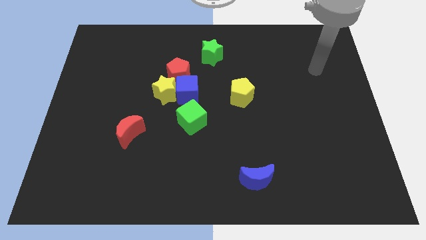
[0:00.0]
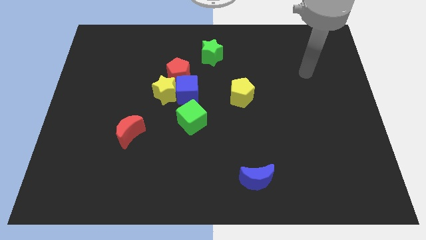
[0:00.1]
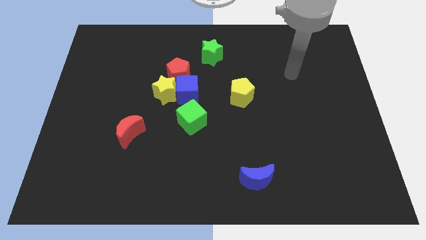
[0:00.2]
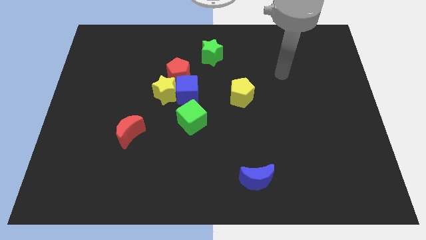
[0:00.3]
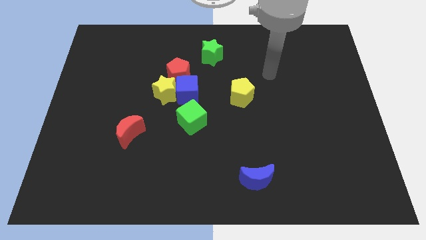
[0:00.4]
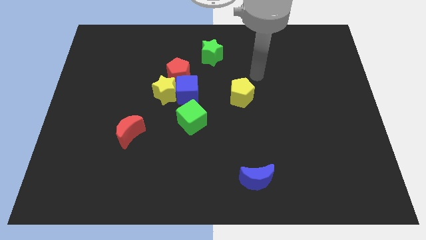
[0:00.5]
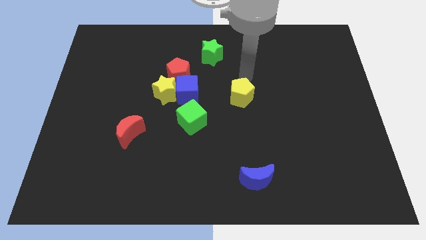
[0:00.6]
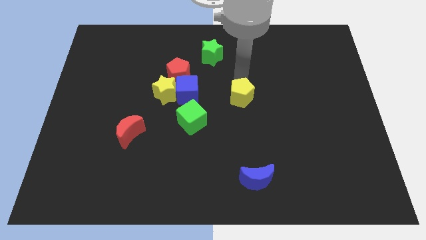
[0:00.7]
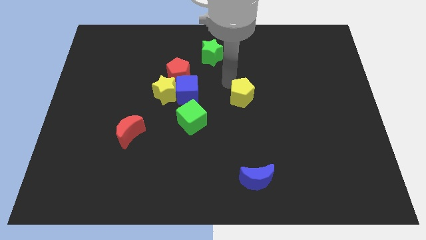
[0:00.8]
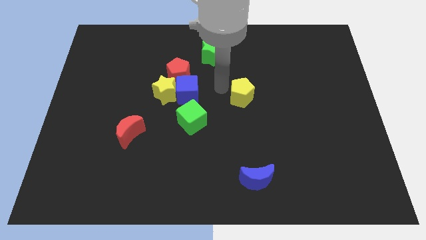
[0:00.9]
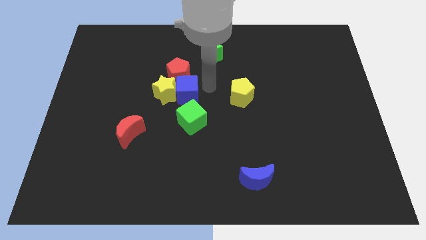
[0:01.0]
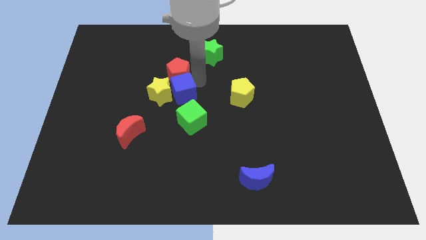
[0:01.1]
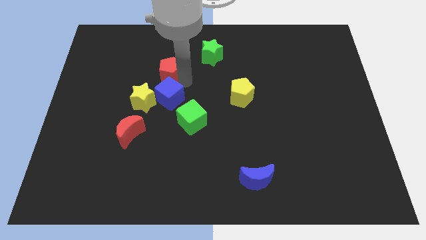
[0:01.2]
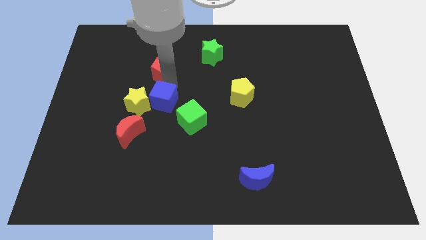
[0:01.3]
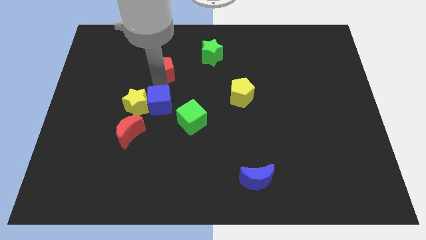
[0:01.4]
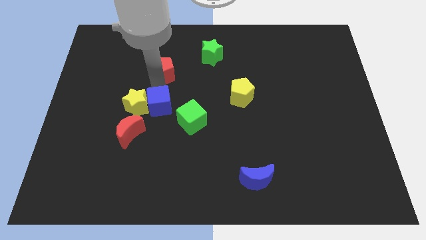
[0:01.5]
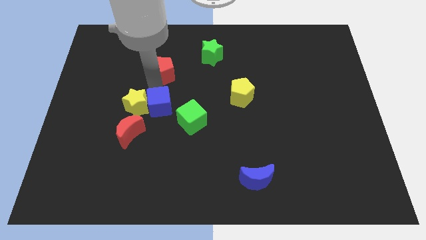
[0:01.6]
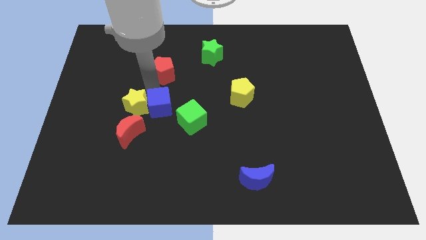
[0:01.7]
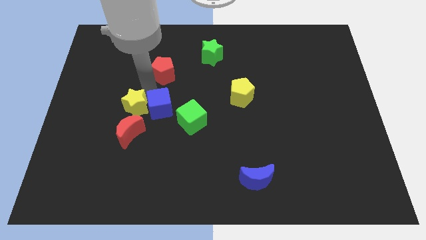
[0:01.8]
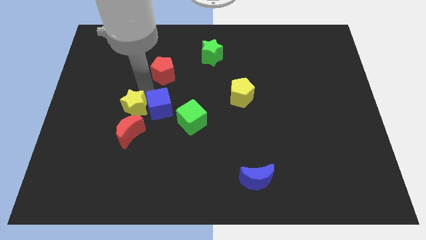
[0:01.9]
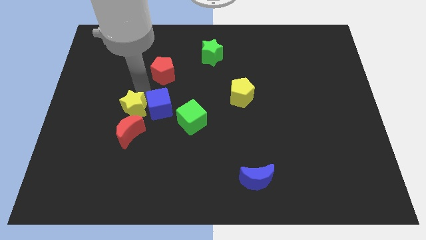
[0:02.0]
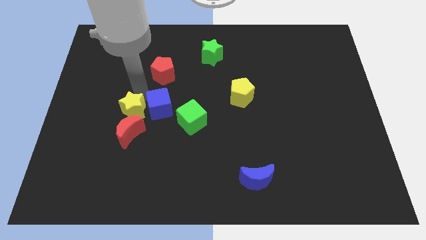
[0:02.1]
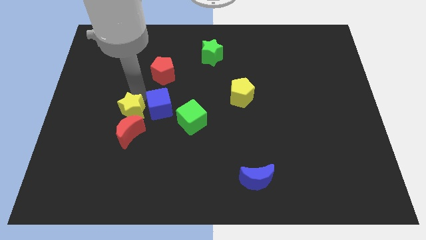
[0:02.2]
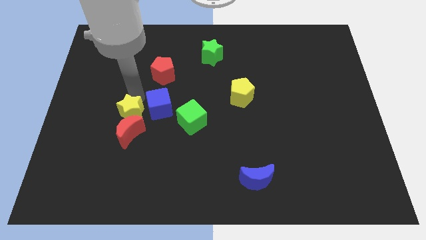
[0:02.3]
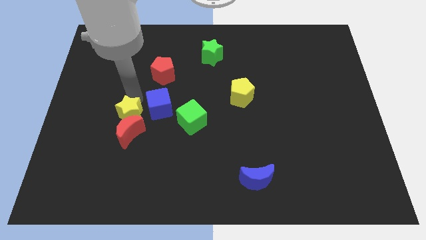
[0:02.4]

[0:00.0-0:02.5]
move the yellow star away from the blue cube and red pentagon

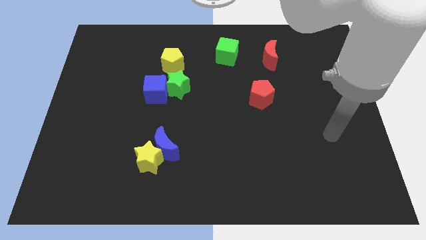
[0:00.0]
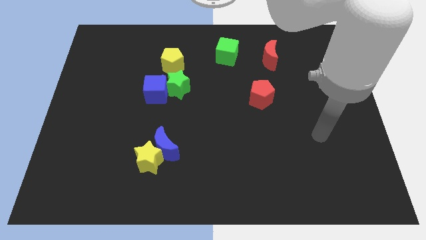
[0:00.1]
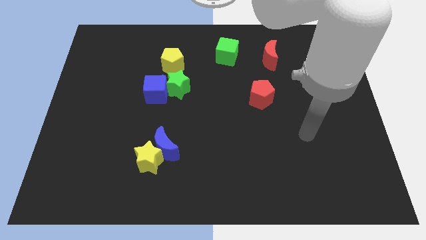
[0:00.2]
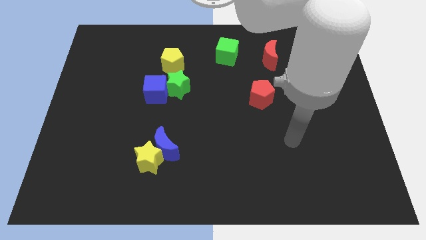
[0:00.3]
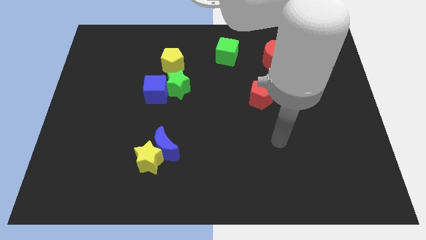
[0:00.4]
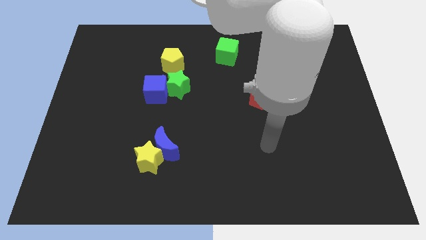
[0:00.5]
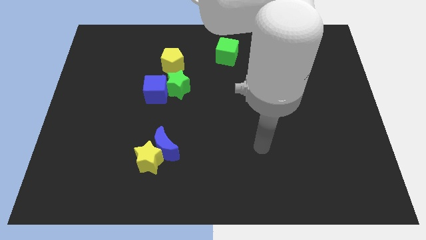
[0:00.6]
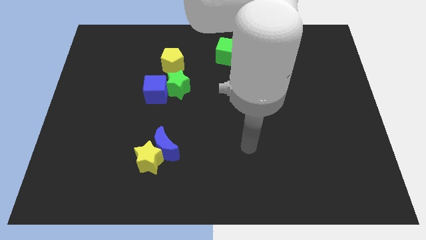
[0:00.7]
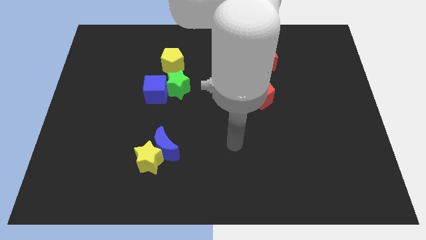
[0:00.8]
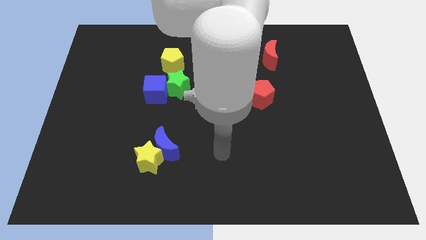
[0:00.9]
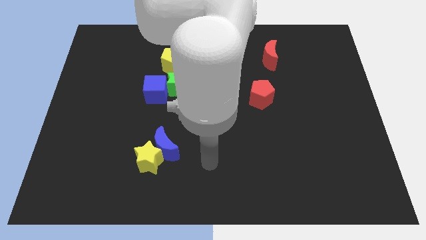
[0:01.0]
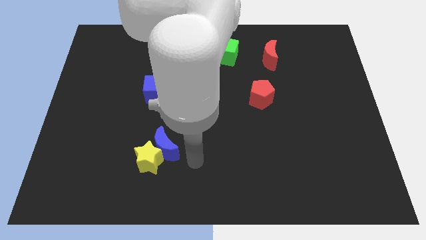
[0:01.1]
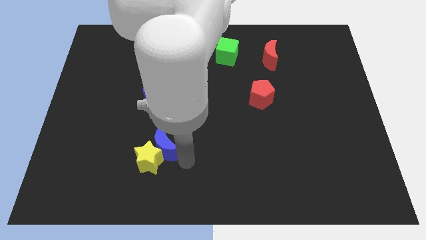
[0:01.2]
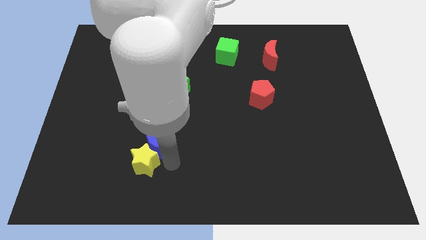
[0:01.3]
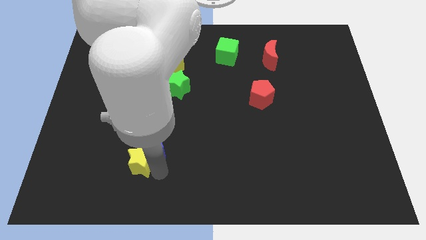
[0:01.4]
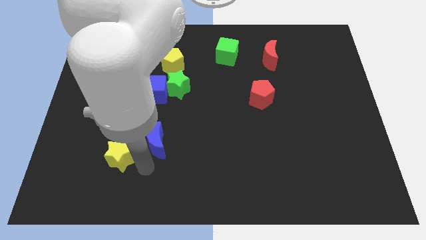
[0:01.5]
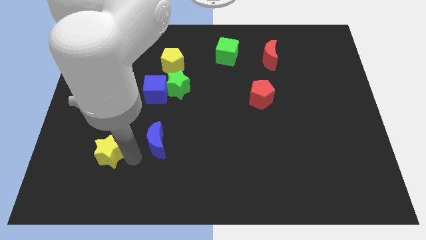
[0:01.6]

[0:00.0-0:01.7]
move the blue moon away from the yellow star

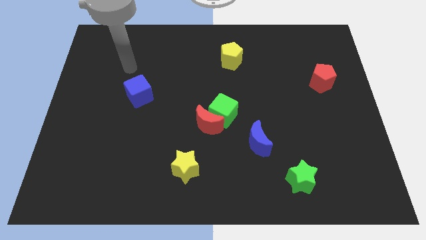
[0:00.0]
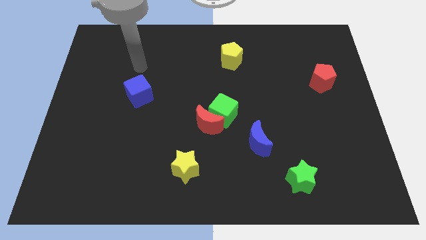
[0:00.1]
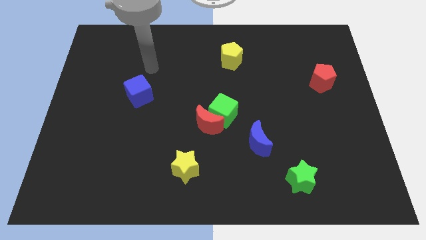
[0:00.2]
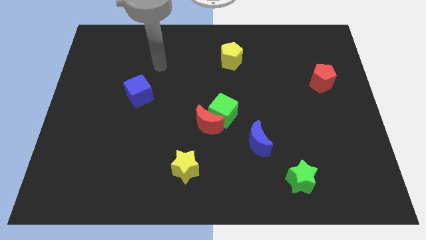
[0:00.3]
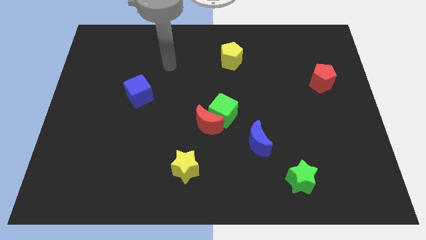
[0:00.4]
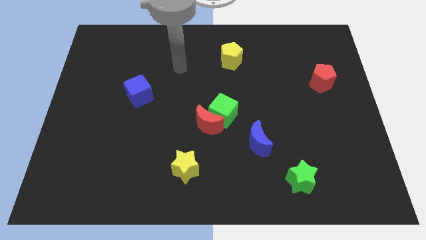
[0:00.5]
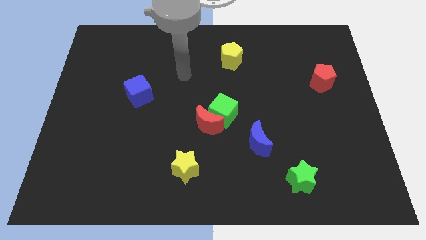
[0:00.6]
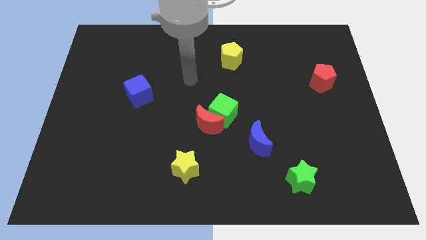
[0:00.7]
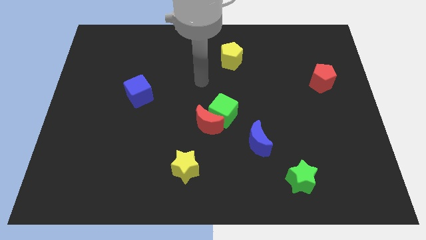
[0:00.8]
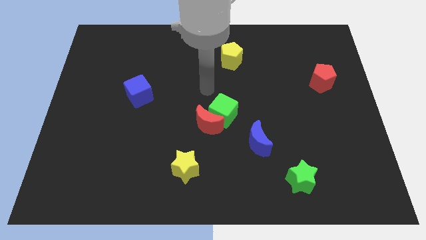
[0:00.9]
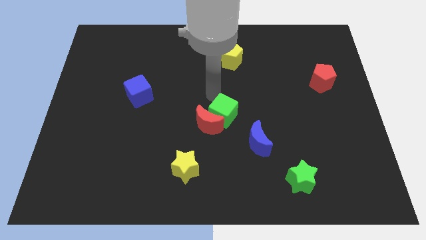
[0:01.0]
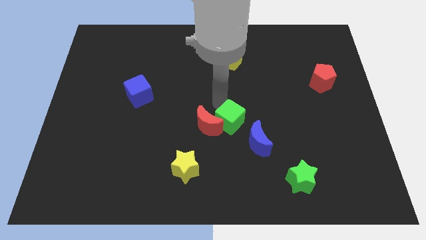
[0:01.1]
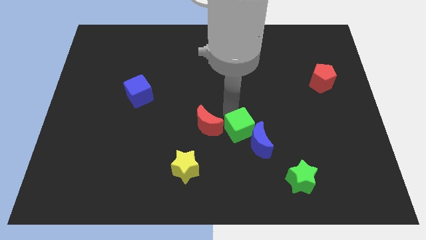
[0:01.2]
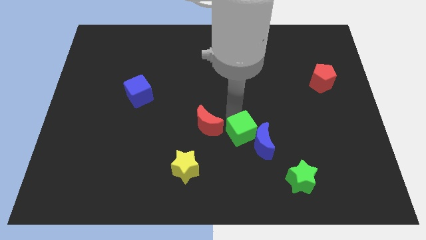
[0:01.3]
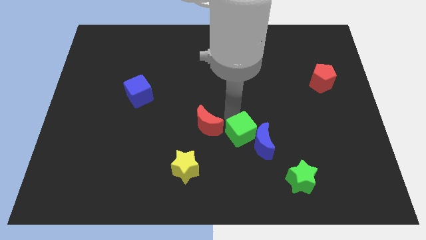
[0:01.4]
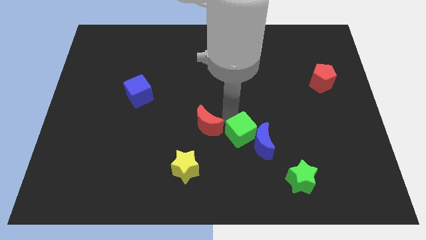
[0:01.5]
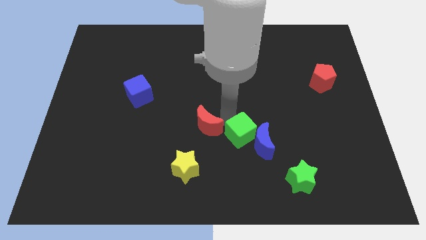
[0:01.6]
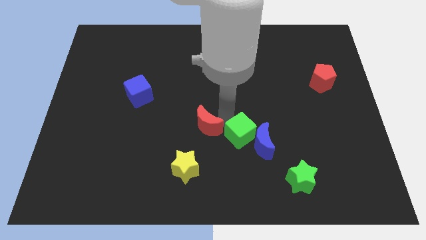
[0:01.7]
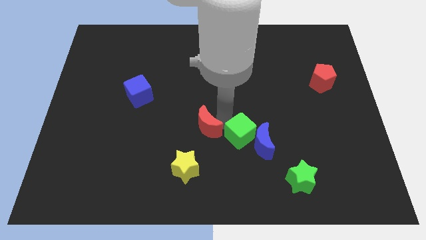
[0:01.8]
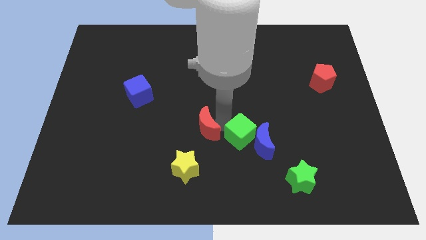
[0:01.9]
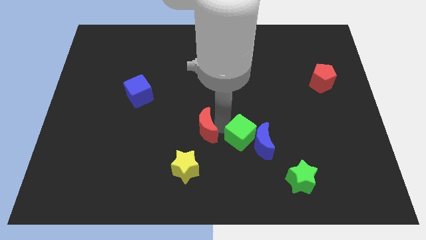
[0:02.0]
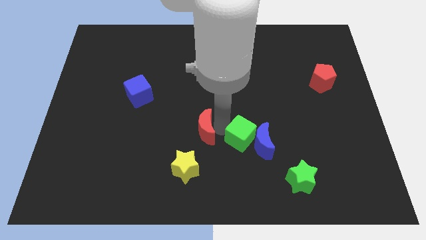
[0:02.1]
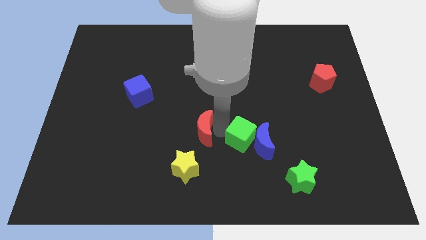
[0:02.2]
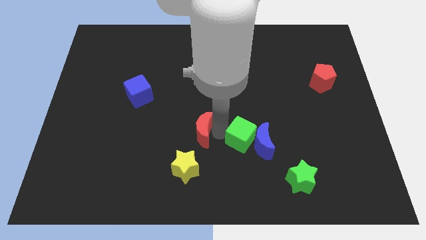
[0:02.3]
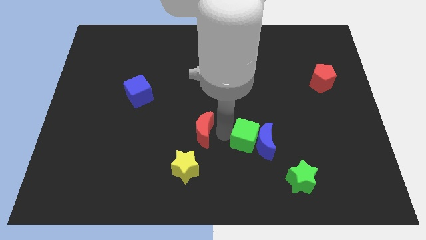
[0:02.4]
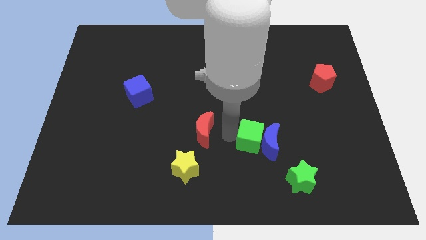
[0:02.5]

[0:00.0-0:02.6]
move the red moon away from the green cube

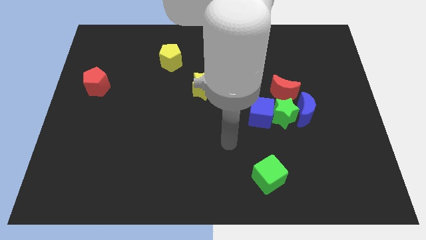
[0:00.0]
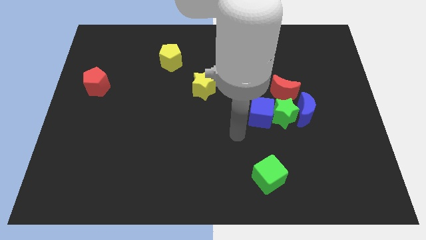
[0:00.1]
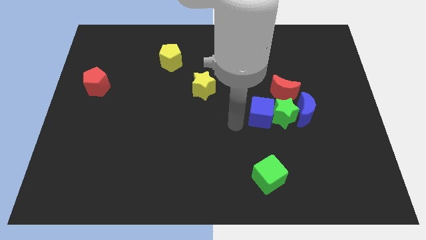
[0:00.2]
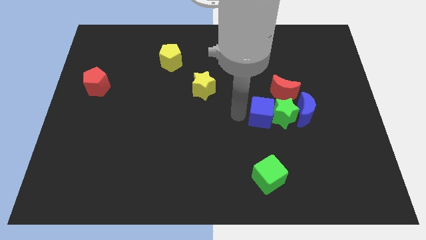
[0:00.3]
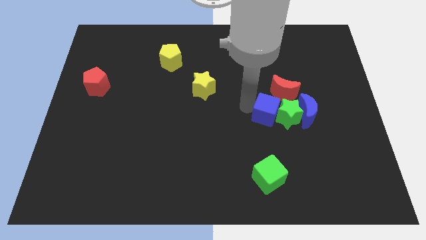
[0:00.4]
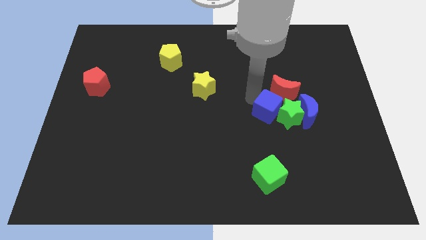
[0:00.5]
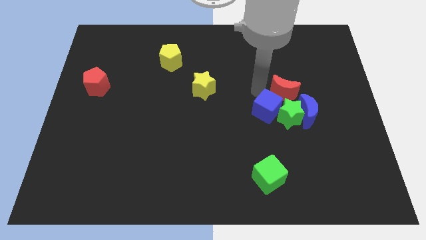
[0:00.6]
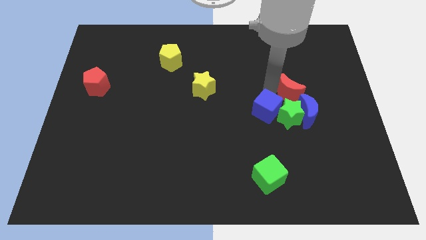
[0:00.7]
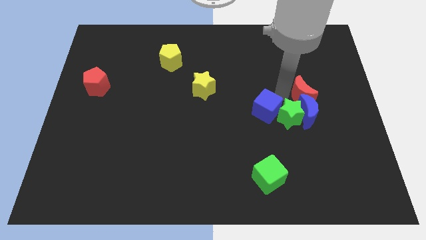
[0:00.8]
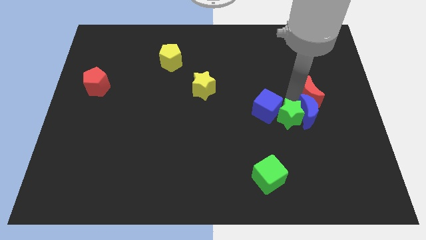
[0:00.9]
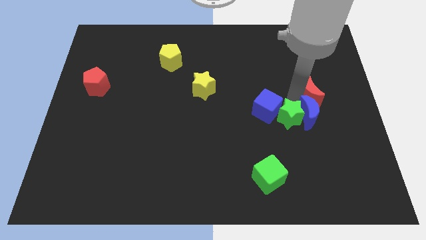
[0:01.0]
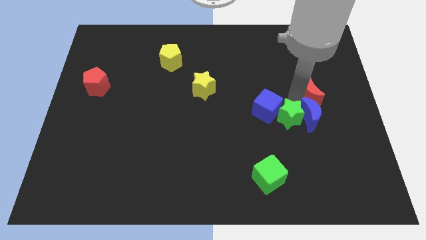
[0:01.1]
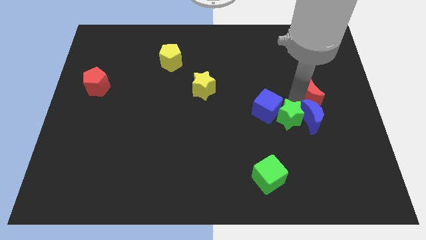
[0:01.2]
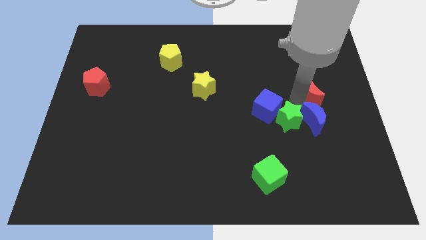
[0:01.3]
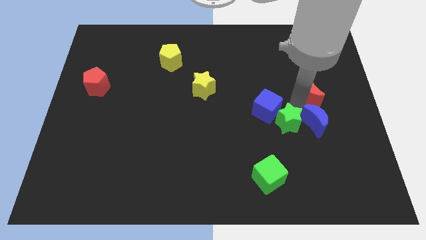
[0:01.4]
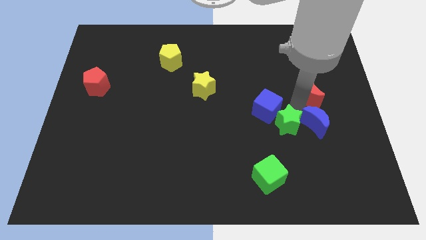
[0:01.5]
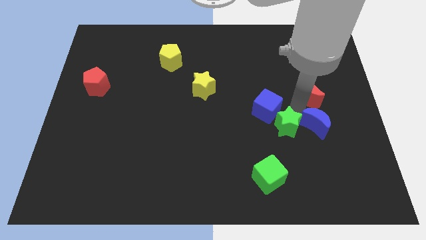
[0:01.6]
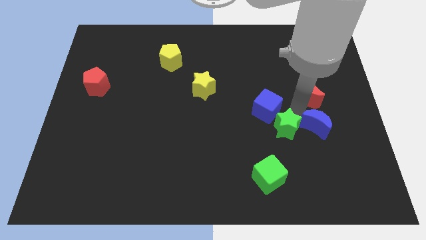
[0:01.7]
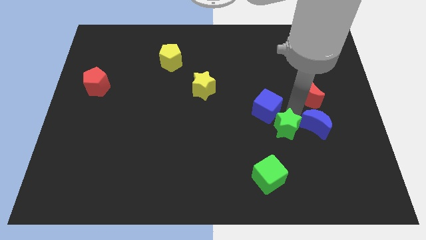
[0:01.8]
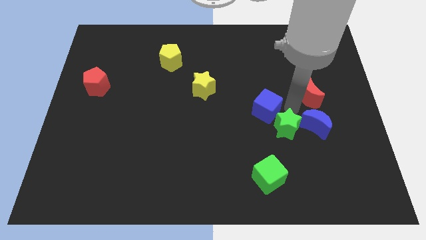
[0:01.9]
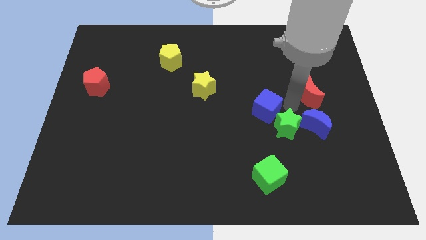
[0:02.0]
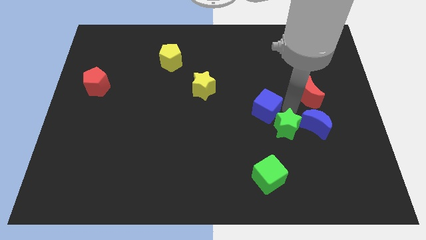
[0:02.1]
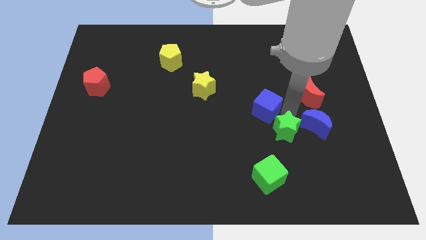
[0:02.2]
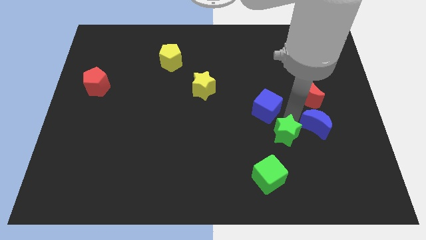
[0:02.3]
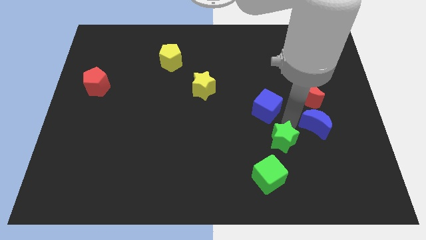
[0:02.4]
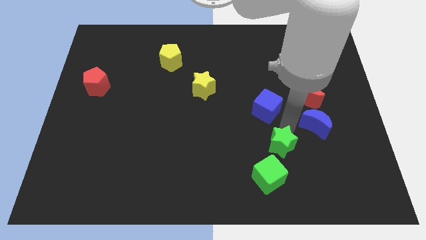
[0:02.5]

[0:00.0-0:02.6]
pull the green star apart from the clump
